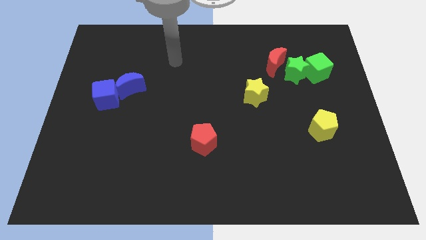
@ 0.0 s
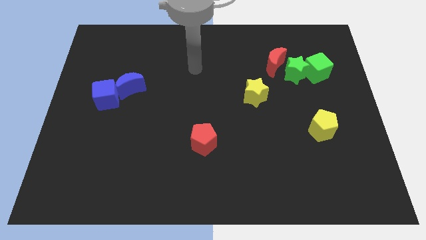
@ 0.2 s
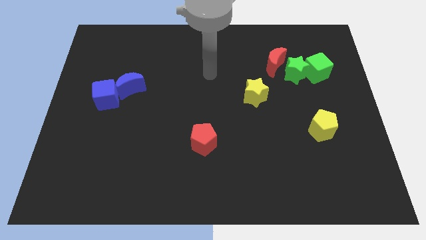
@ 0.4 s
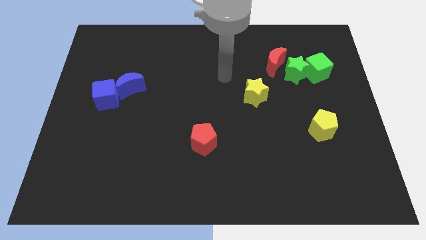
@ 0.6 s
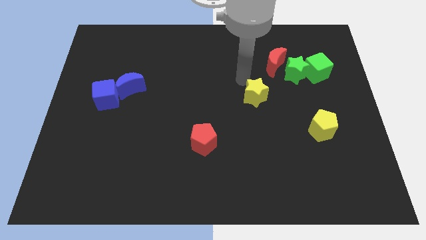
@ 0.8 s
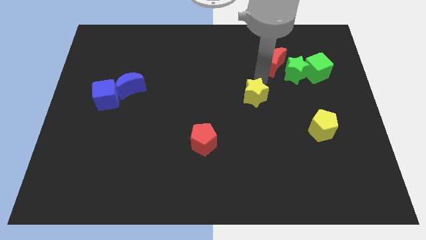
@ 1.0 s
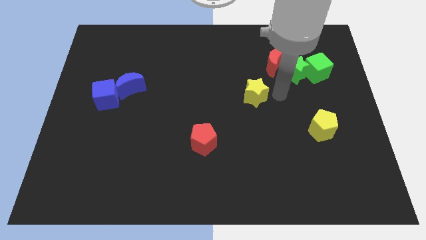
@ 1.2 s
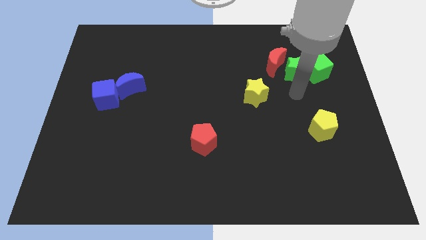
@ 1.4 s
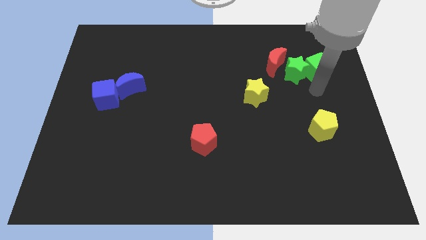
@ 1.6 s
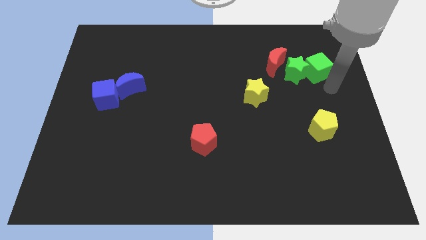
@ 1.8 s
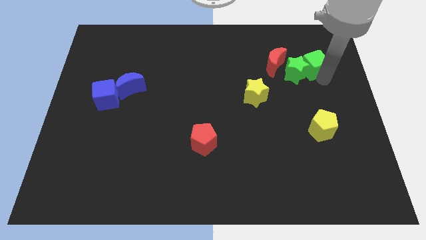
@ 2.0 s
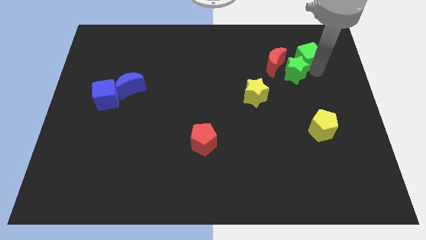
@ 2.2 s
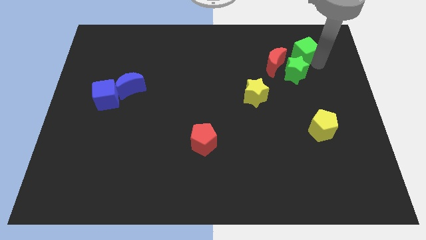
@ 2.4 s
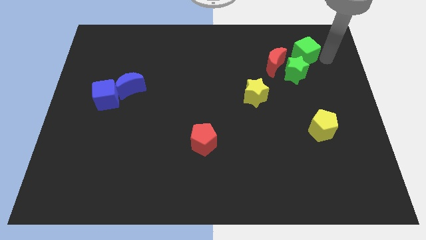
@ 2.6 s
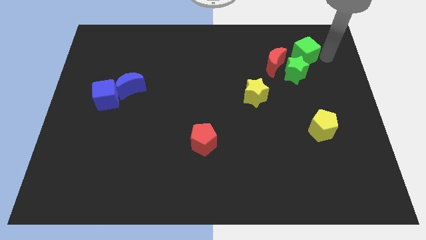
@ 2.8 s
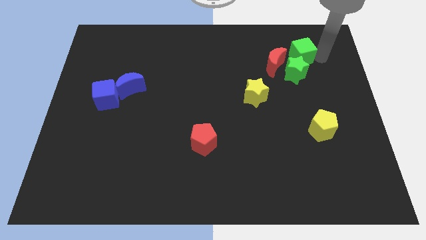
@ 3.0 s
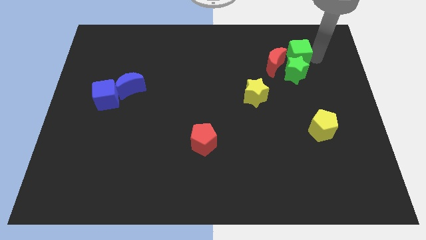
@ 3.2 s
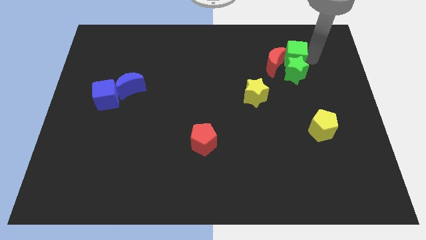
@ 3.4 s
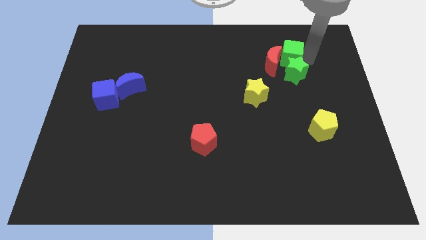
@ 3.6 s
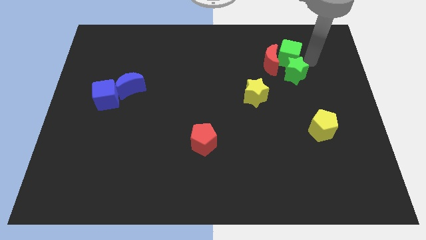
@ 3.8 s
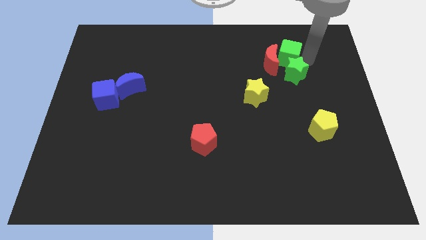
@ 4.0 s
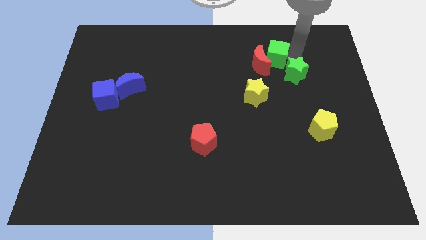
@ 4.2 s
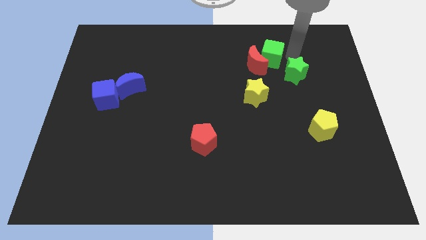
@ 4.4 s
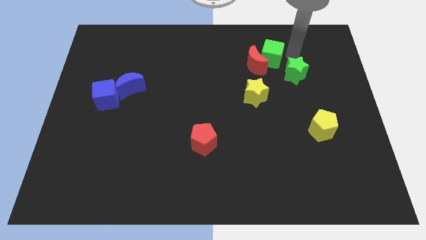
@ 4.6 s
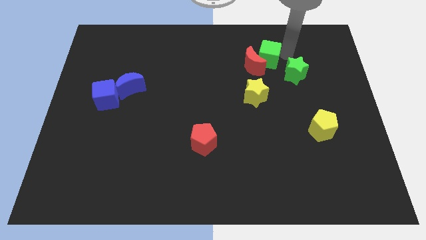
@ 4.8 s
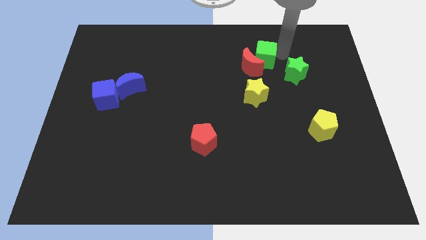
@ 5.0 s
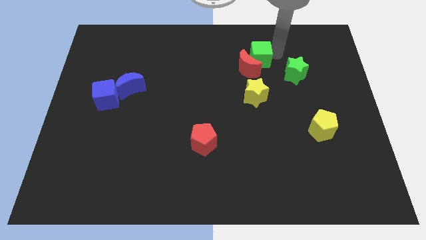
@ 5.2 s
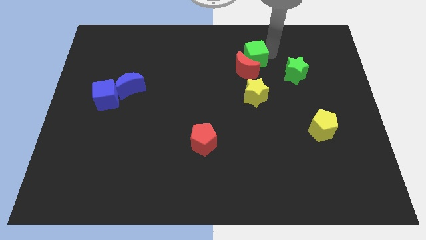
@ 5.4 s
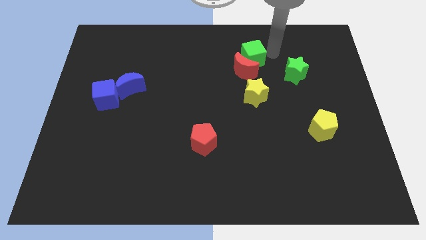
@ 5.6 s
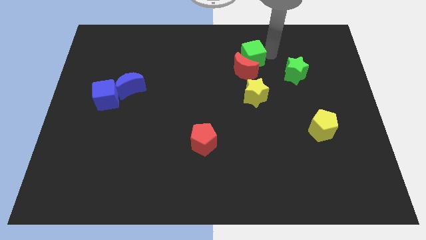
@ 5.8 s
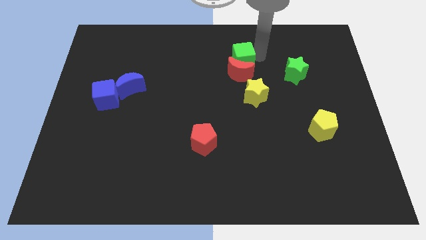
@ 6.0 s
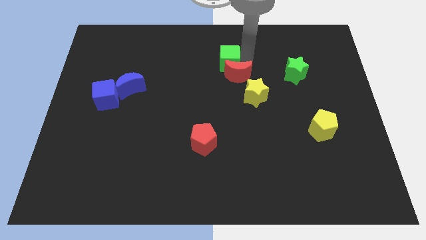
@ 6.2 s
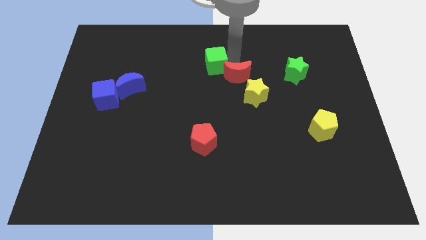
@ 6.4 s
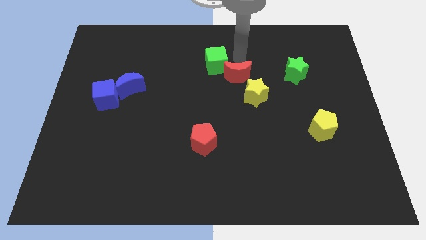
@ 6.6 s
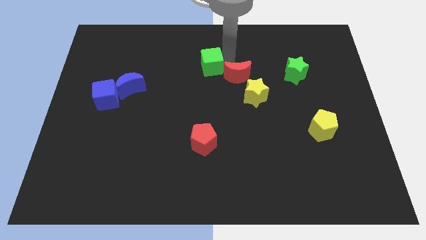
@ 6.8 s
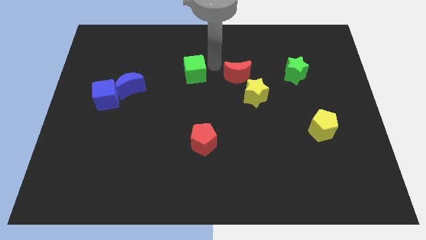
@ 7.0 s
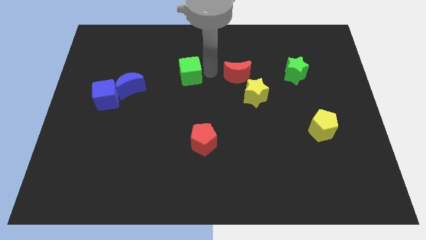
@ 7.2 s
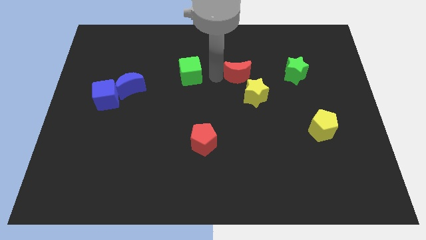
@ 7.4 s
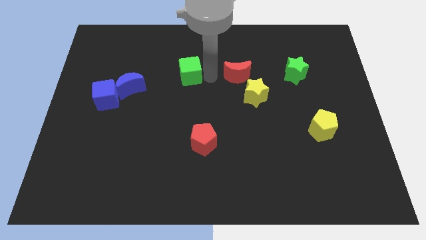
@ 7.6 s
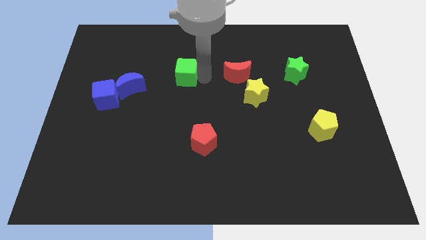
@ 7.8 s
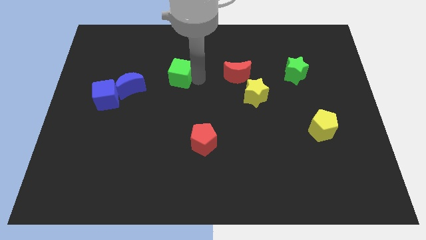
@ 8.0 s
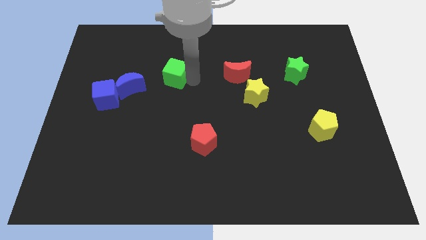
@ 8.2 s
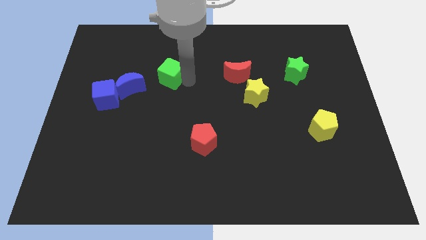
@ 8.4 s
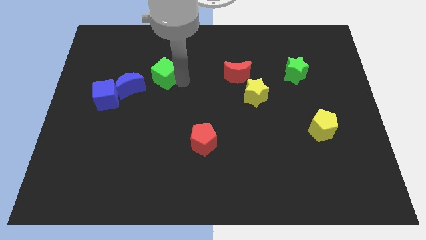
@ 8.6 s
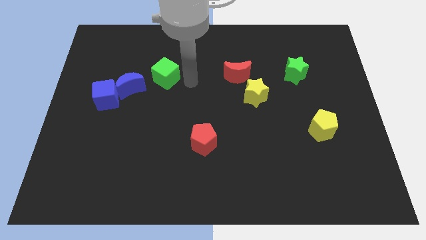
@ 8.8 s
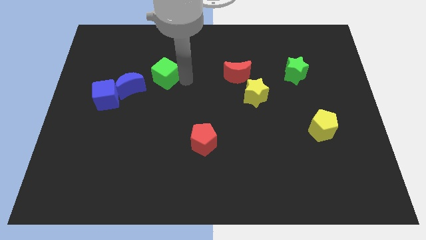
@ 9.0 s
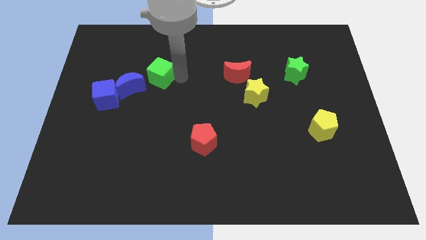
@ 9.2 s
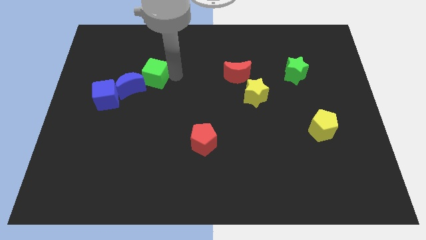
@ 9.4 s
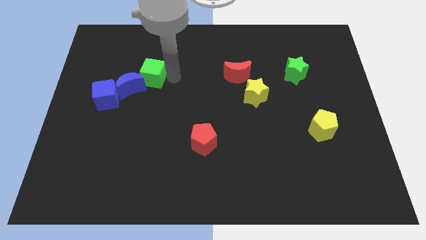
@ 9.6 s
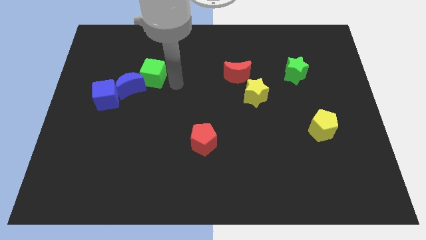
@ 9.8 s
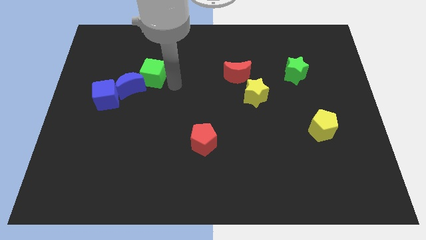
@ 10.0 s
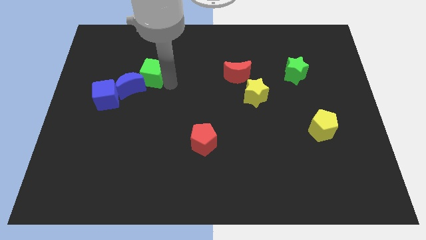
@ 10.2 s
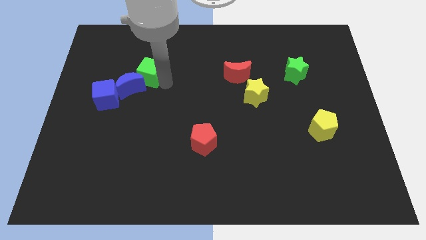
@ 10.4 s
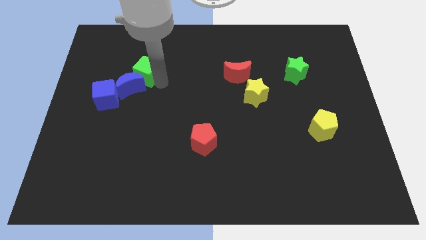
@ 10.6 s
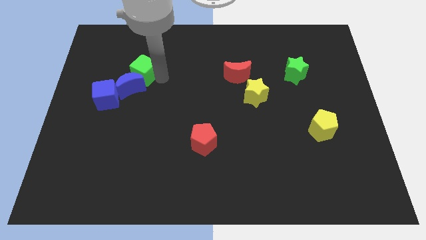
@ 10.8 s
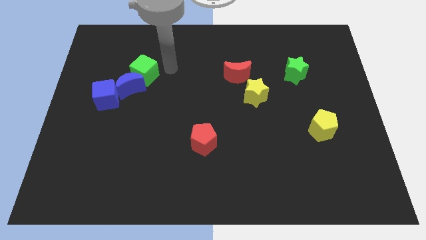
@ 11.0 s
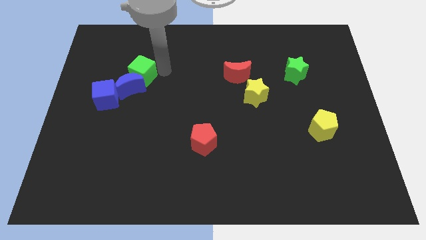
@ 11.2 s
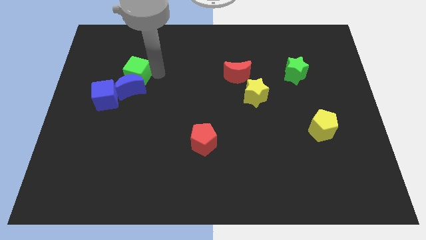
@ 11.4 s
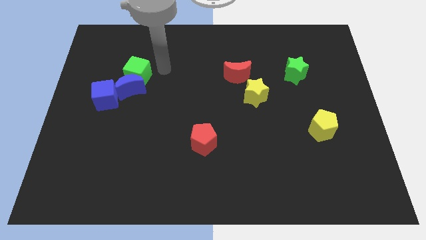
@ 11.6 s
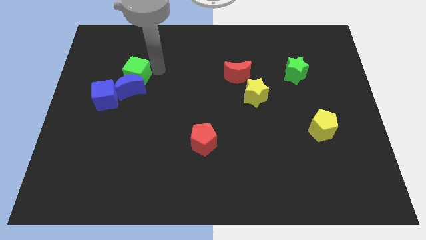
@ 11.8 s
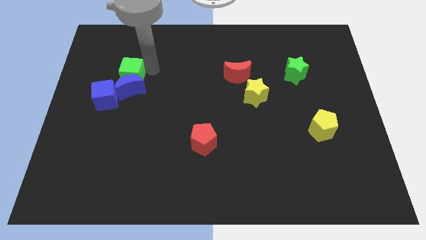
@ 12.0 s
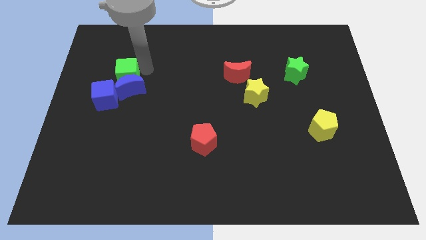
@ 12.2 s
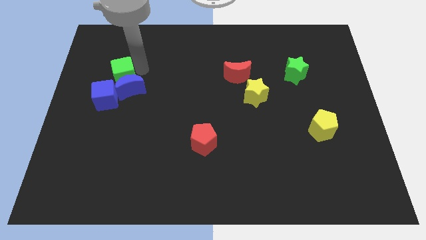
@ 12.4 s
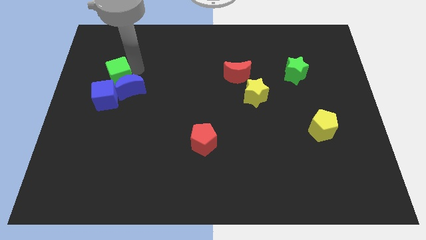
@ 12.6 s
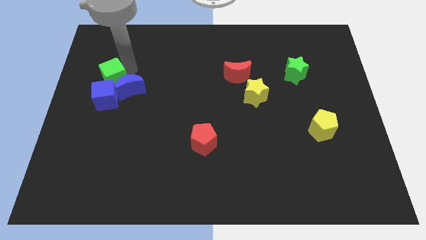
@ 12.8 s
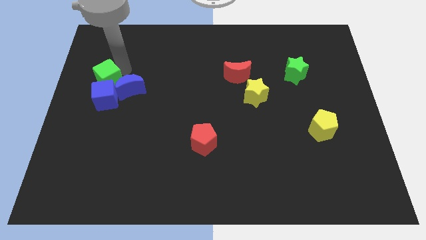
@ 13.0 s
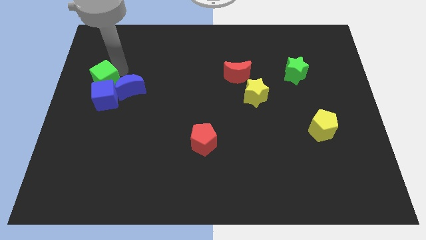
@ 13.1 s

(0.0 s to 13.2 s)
slide the green cube to the left side of the board
